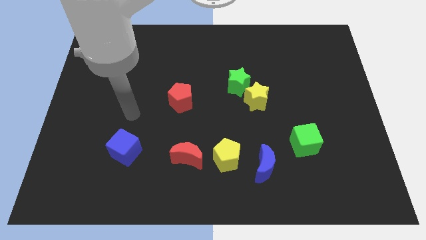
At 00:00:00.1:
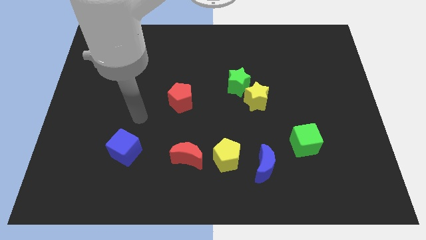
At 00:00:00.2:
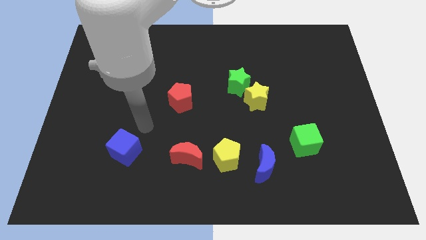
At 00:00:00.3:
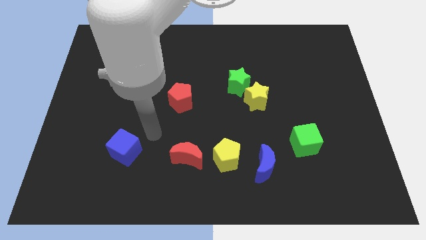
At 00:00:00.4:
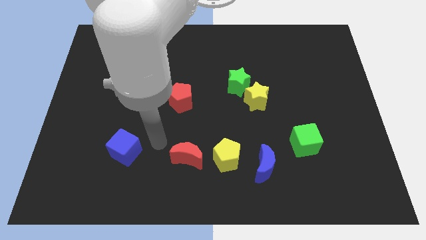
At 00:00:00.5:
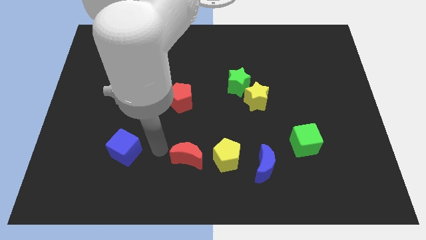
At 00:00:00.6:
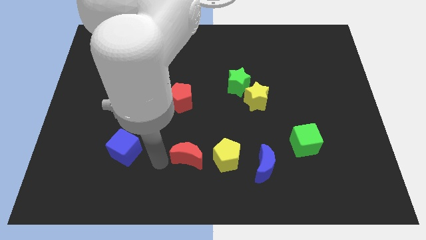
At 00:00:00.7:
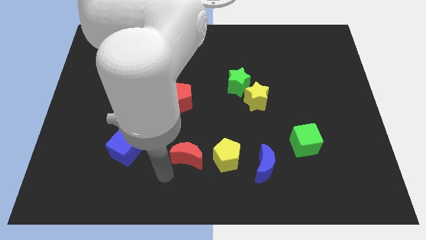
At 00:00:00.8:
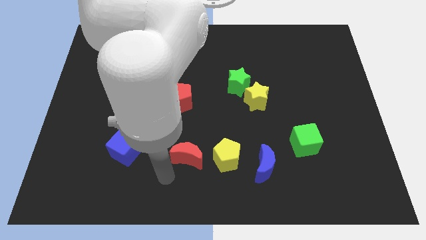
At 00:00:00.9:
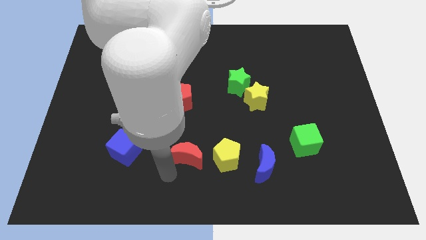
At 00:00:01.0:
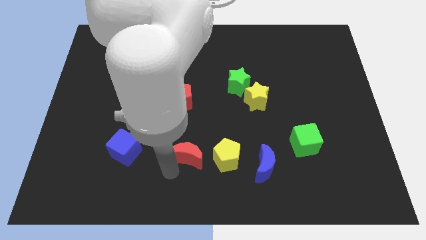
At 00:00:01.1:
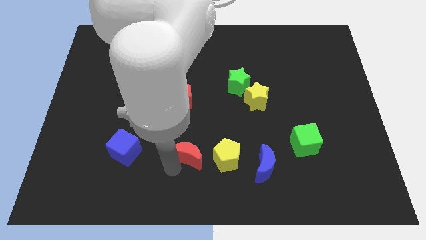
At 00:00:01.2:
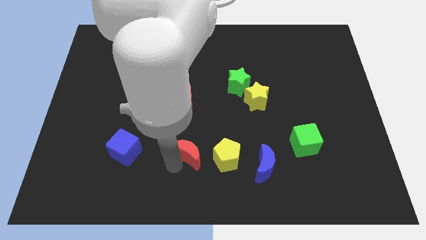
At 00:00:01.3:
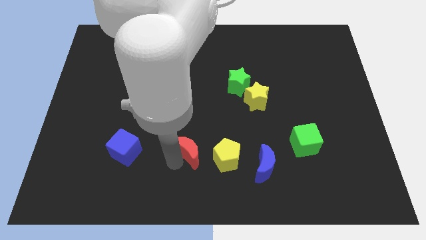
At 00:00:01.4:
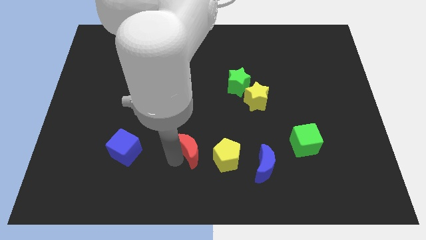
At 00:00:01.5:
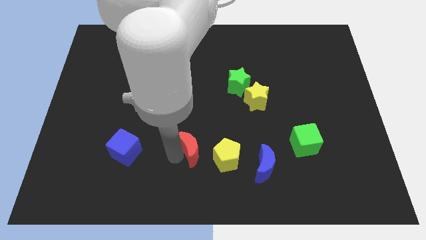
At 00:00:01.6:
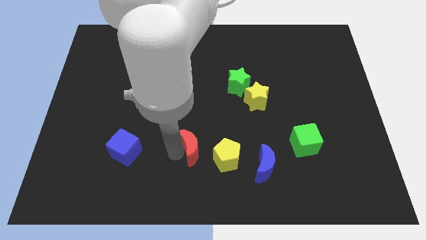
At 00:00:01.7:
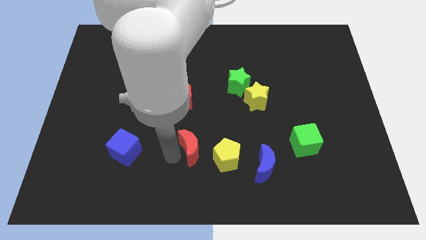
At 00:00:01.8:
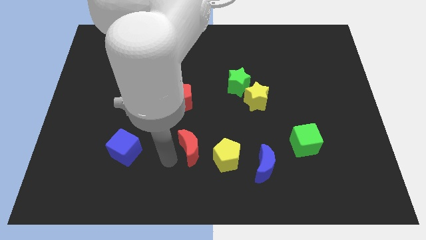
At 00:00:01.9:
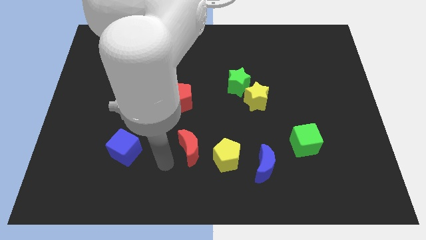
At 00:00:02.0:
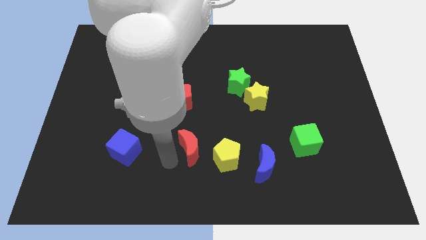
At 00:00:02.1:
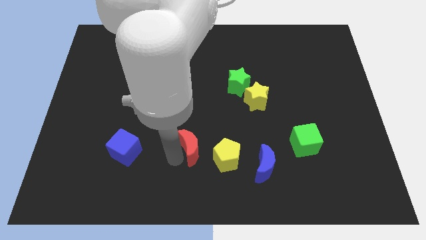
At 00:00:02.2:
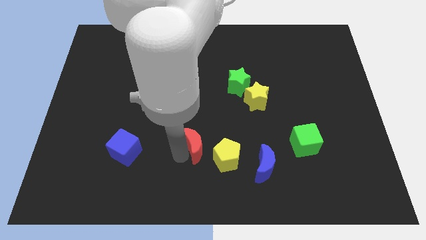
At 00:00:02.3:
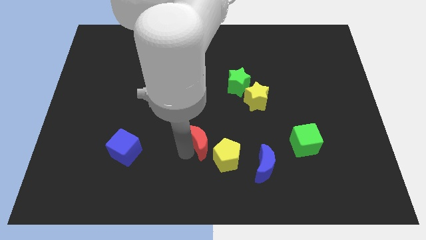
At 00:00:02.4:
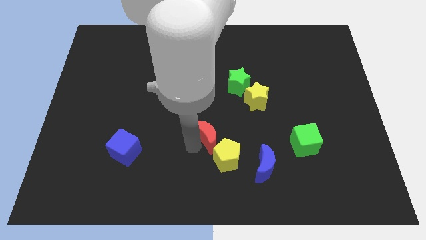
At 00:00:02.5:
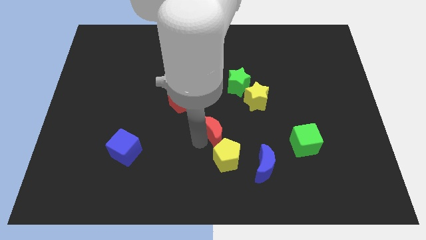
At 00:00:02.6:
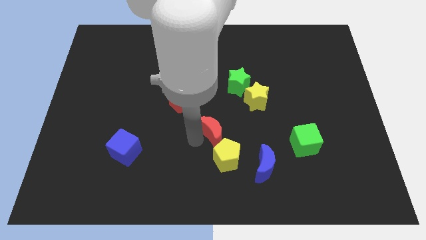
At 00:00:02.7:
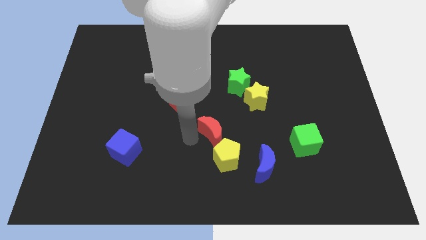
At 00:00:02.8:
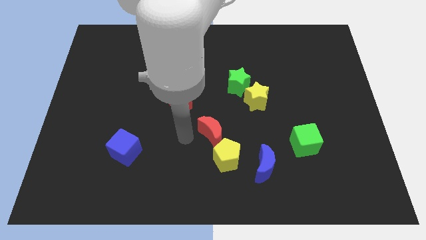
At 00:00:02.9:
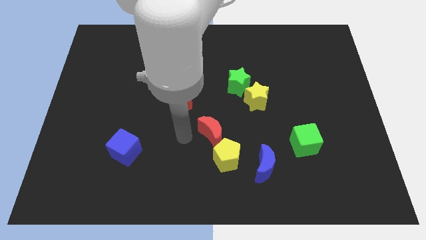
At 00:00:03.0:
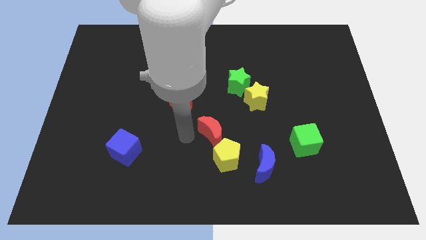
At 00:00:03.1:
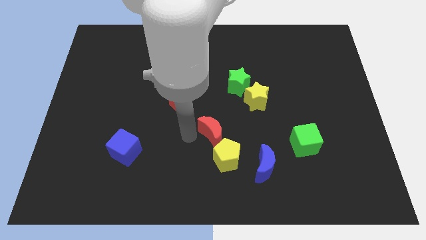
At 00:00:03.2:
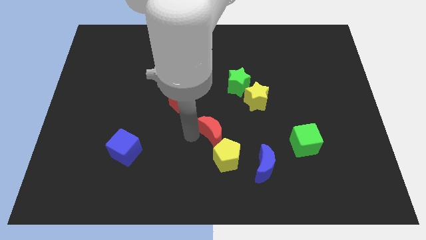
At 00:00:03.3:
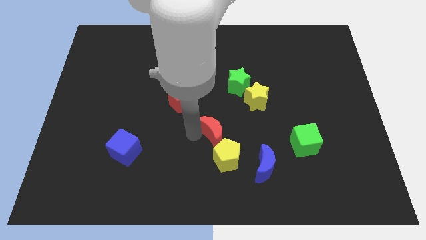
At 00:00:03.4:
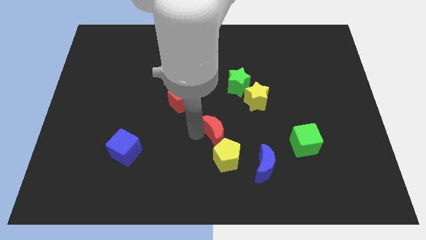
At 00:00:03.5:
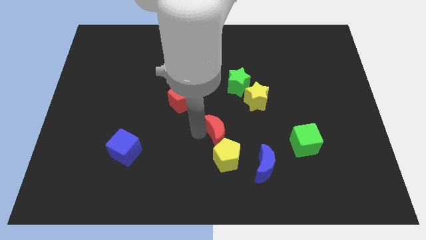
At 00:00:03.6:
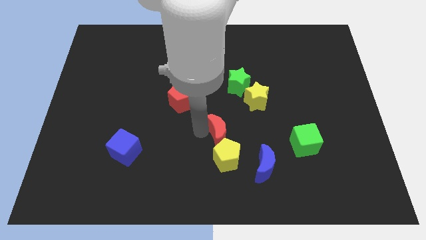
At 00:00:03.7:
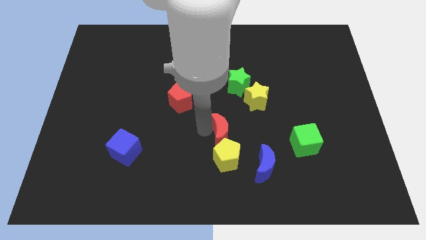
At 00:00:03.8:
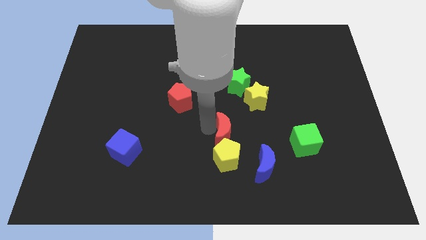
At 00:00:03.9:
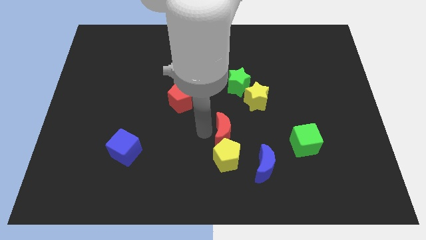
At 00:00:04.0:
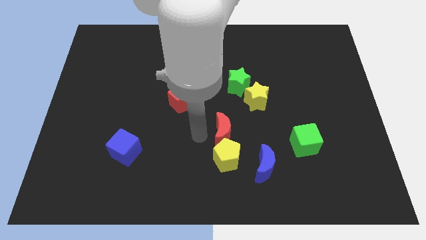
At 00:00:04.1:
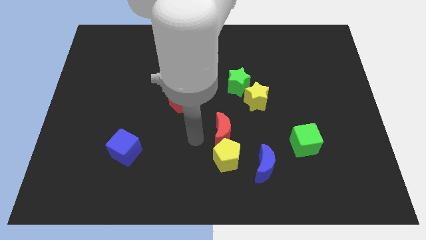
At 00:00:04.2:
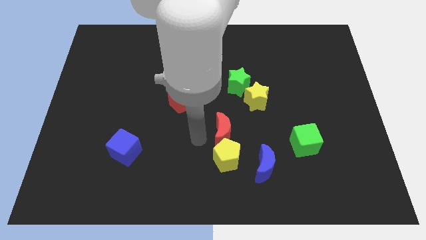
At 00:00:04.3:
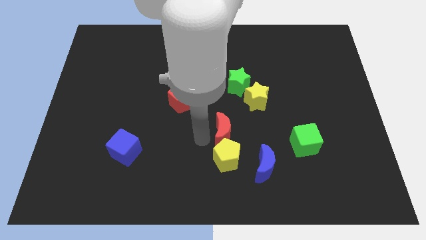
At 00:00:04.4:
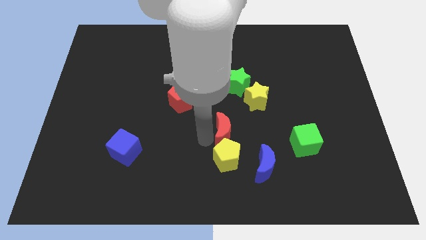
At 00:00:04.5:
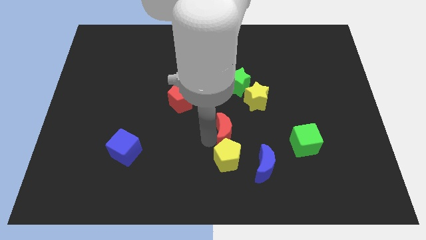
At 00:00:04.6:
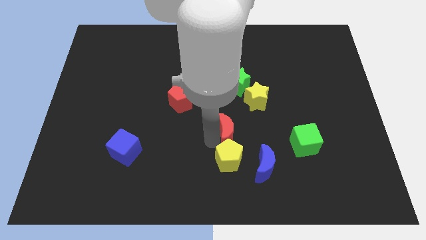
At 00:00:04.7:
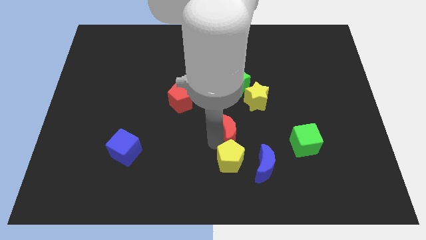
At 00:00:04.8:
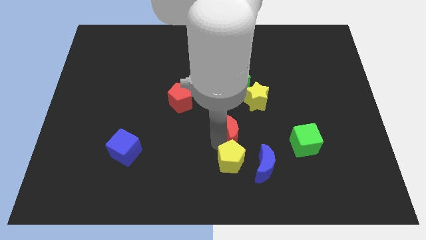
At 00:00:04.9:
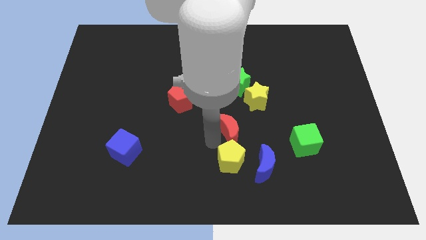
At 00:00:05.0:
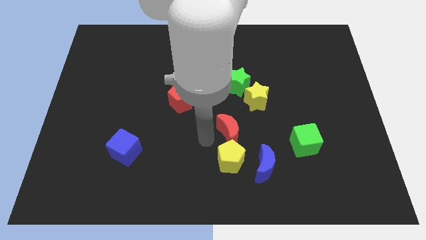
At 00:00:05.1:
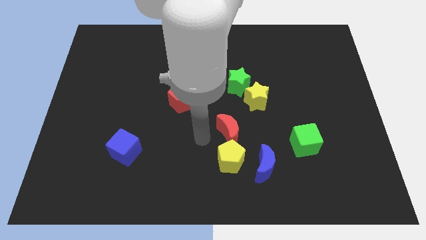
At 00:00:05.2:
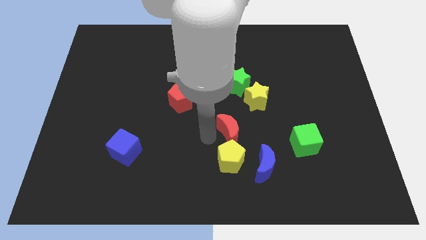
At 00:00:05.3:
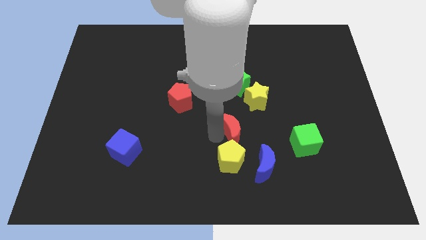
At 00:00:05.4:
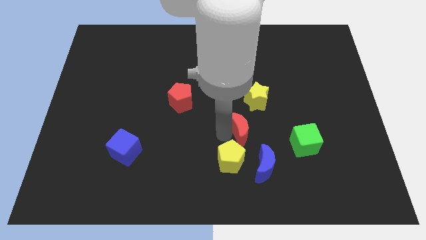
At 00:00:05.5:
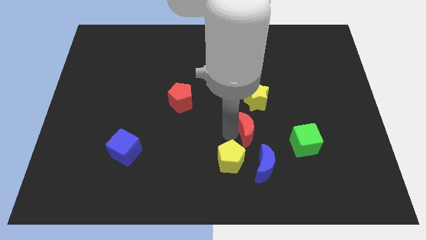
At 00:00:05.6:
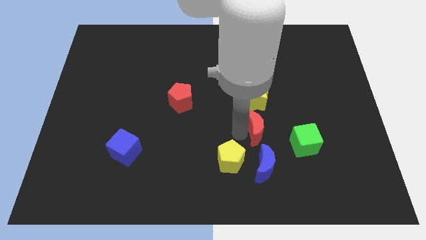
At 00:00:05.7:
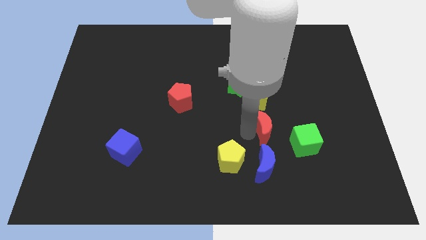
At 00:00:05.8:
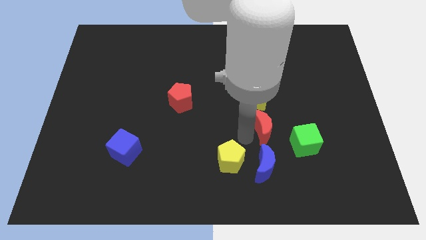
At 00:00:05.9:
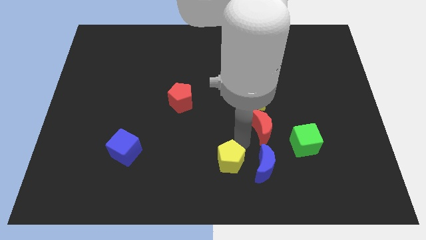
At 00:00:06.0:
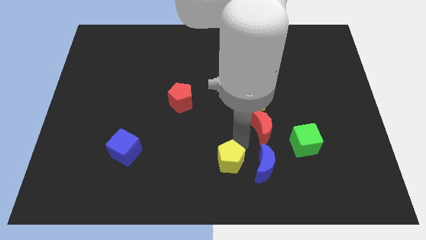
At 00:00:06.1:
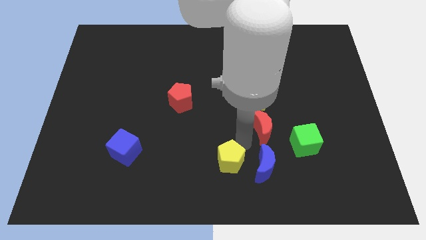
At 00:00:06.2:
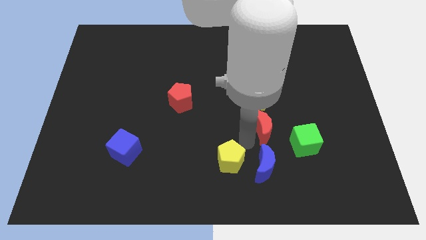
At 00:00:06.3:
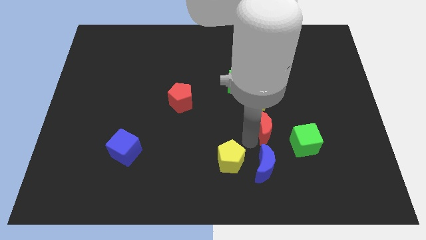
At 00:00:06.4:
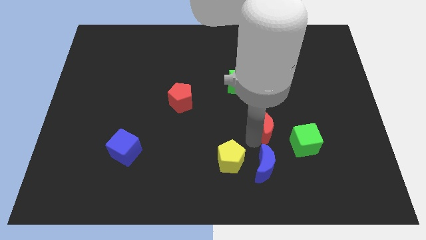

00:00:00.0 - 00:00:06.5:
push the red moon to the bottom right side of the yellow star
